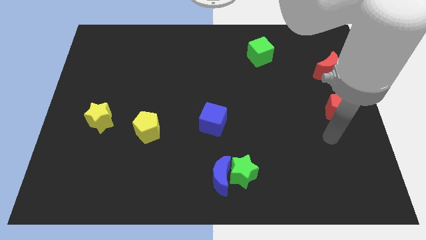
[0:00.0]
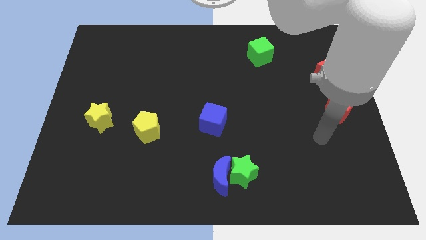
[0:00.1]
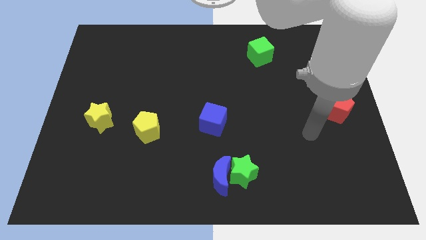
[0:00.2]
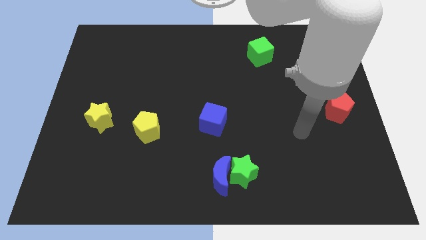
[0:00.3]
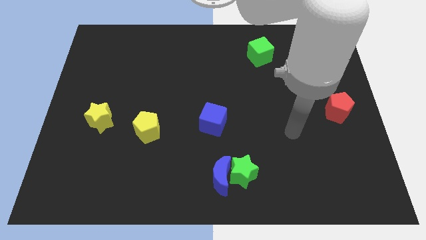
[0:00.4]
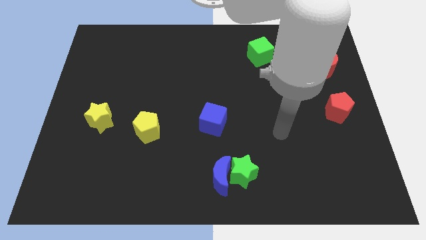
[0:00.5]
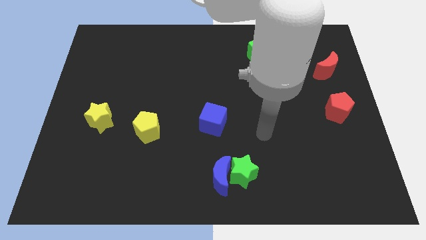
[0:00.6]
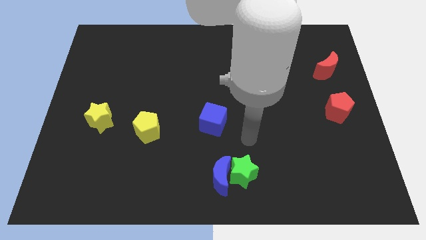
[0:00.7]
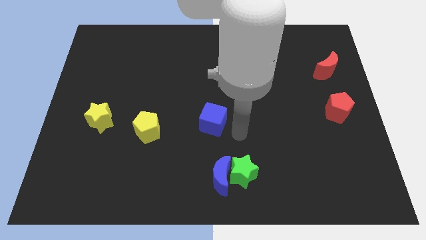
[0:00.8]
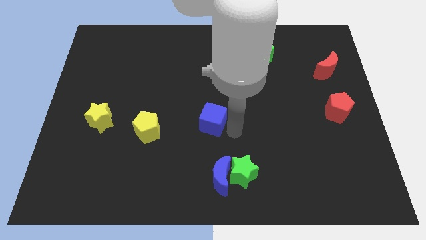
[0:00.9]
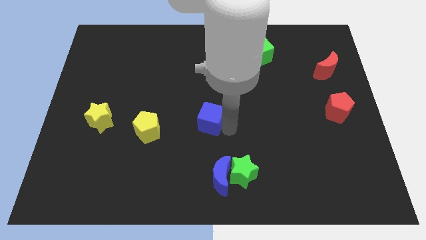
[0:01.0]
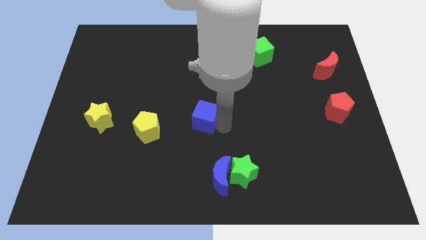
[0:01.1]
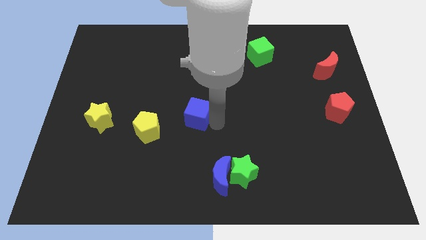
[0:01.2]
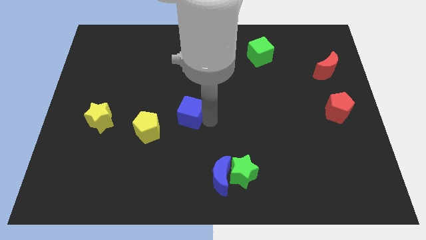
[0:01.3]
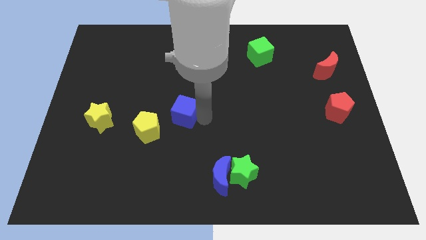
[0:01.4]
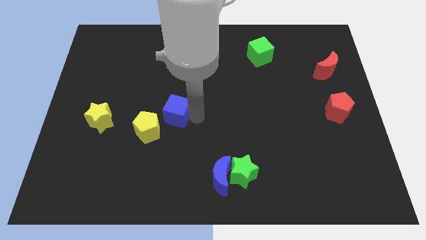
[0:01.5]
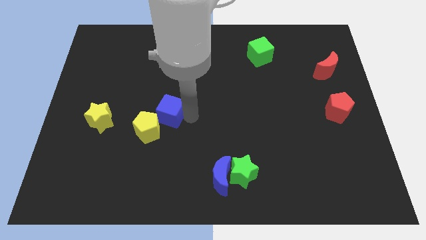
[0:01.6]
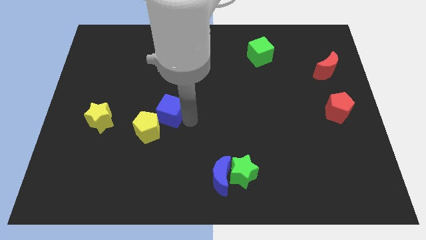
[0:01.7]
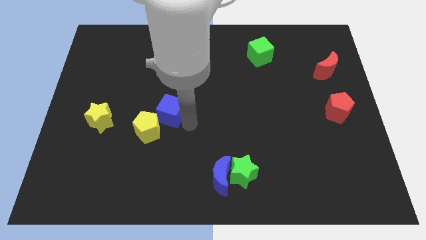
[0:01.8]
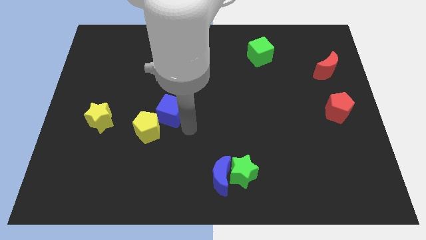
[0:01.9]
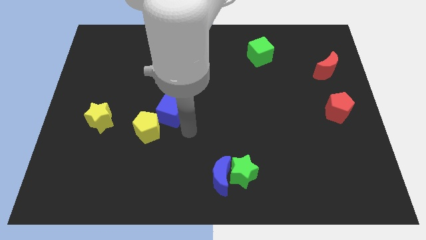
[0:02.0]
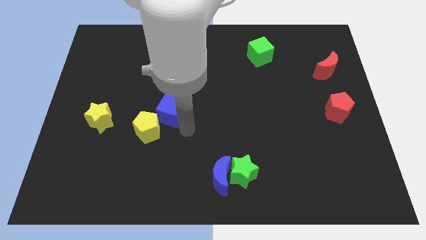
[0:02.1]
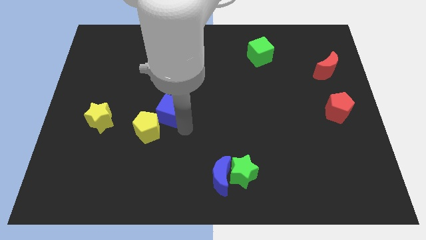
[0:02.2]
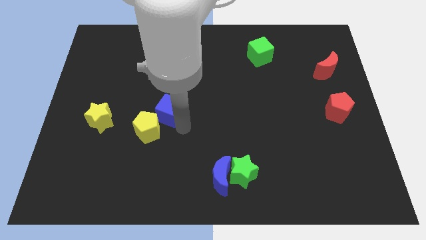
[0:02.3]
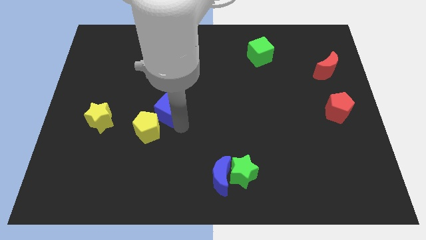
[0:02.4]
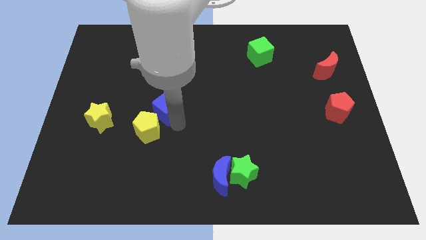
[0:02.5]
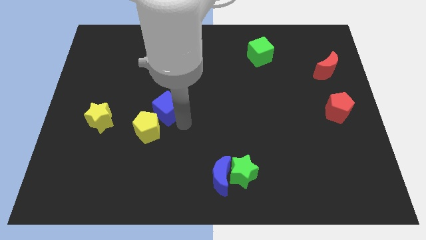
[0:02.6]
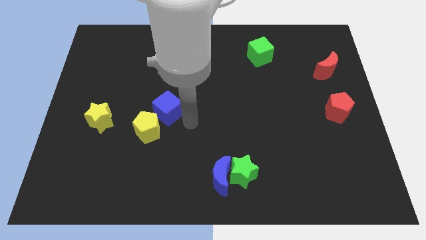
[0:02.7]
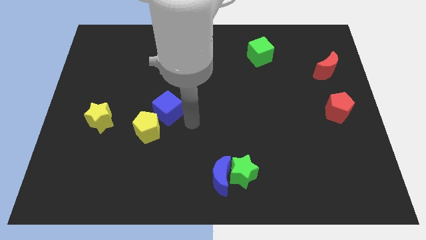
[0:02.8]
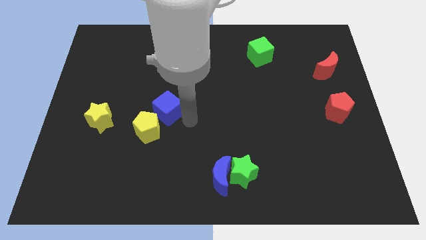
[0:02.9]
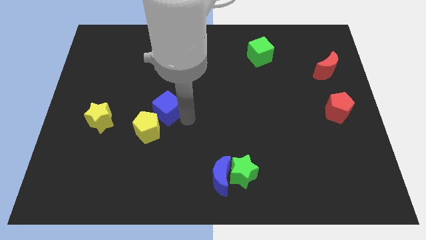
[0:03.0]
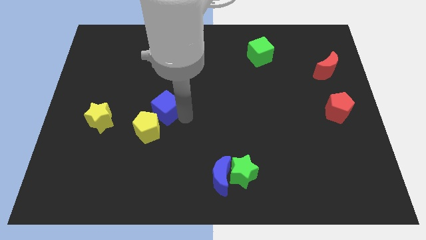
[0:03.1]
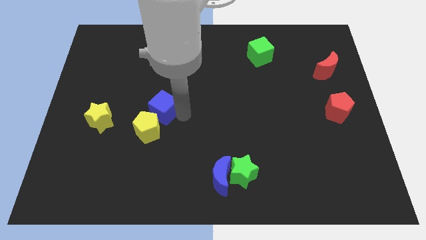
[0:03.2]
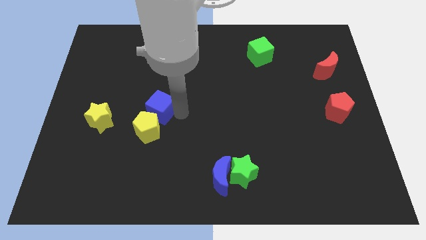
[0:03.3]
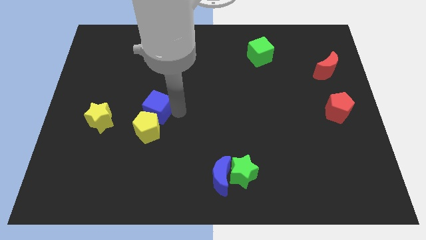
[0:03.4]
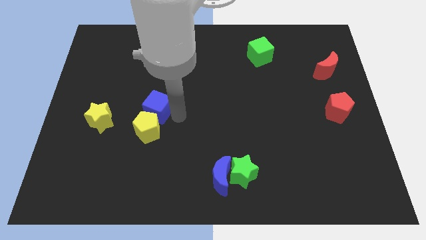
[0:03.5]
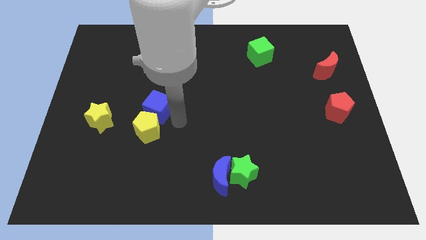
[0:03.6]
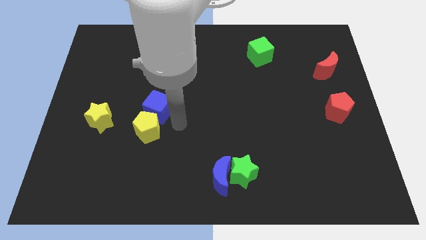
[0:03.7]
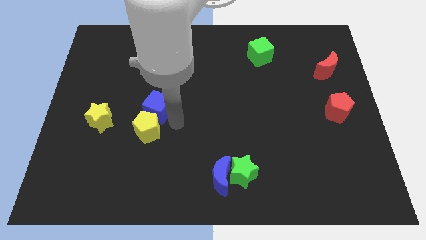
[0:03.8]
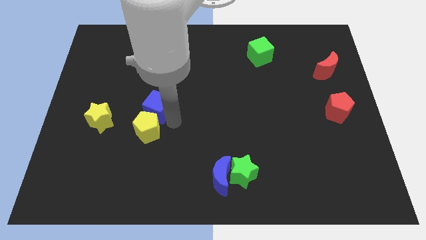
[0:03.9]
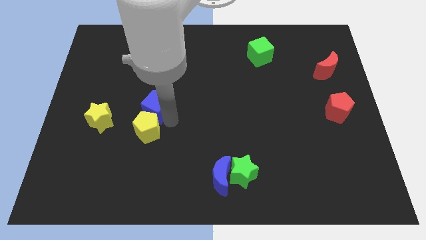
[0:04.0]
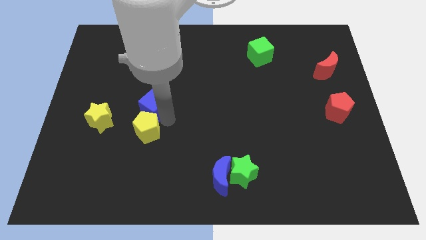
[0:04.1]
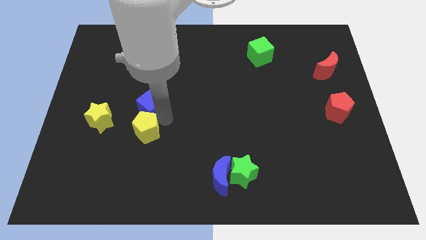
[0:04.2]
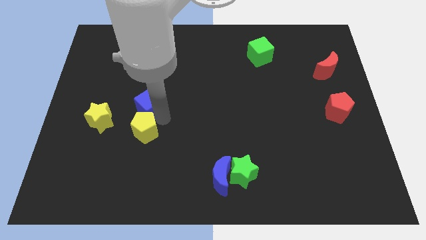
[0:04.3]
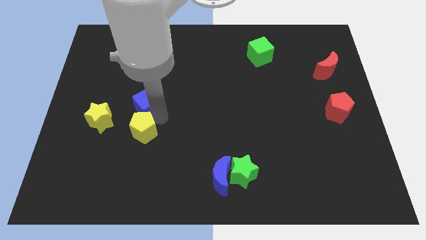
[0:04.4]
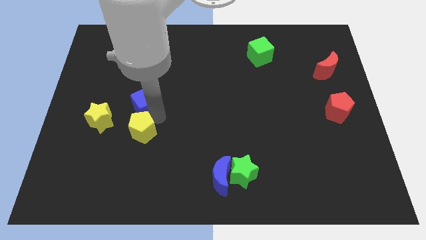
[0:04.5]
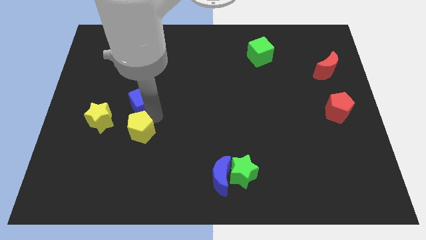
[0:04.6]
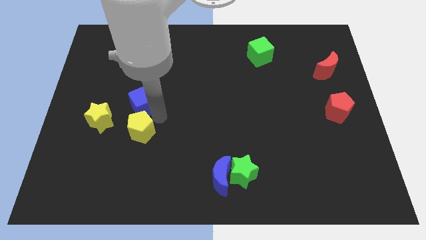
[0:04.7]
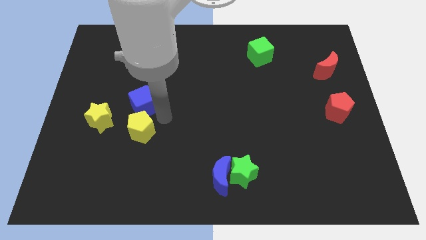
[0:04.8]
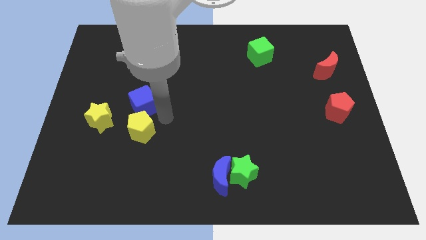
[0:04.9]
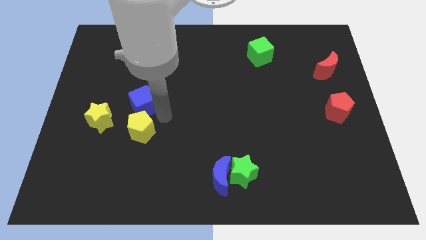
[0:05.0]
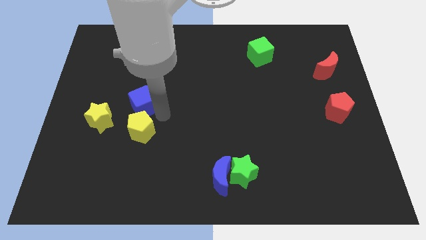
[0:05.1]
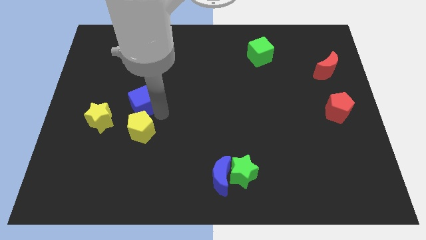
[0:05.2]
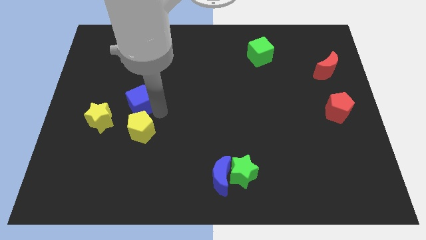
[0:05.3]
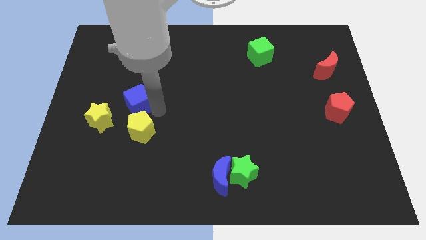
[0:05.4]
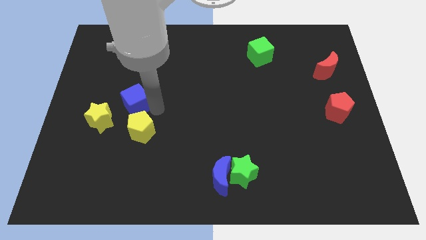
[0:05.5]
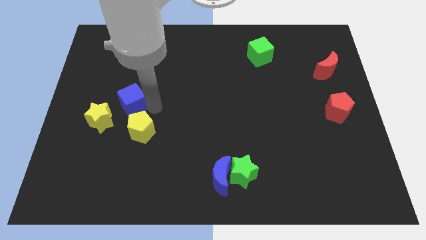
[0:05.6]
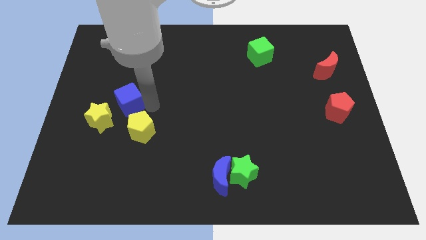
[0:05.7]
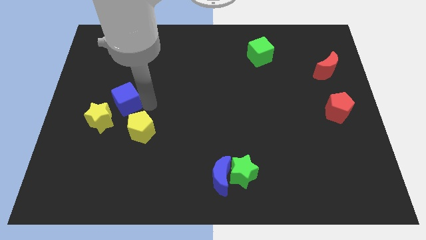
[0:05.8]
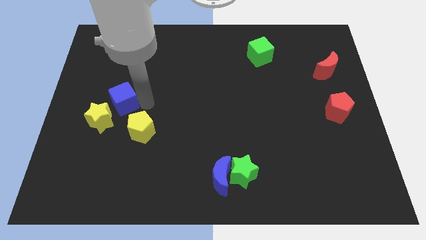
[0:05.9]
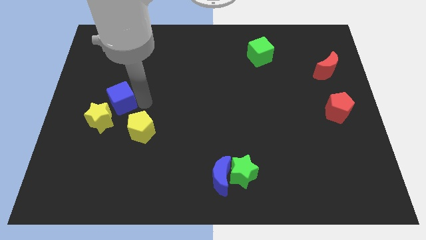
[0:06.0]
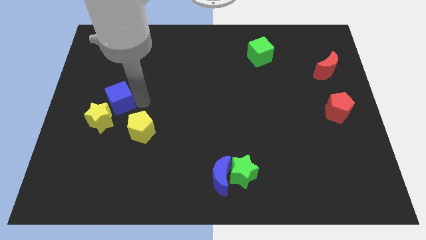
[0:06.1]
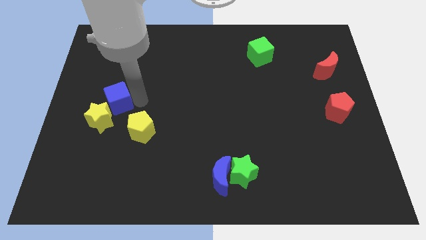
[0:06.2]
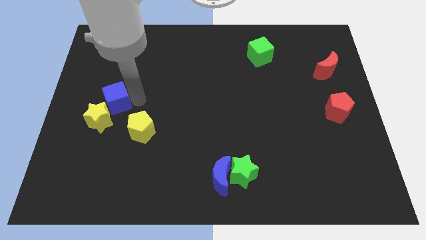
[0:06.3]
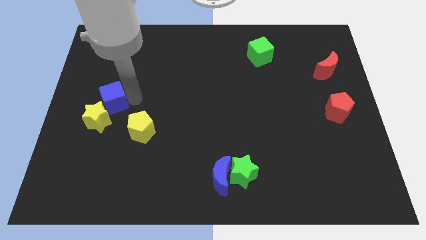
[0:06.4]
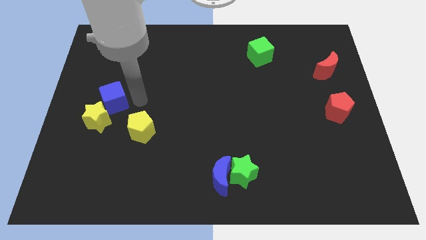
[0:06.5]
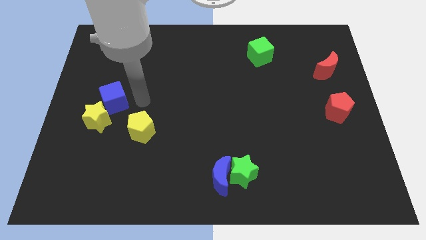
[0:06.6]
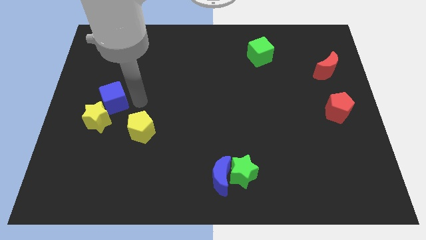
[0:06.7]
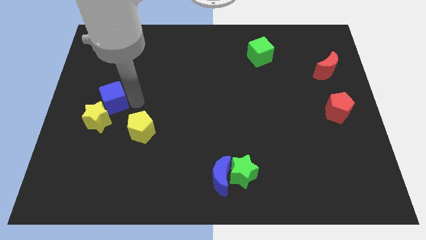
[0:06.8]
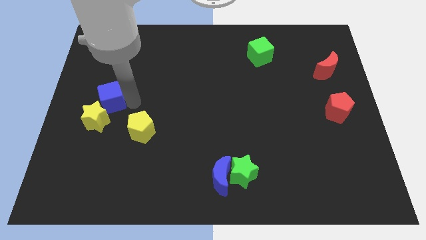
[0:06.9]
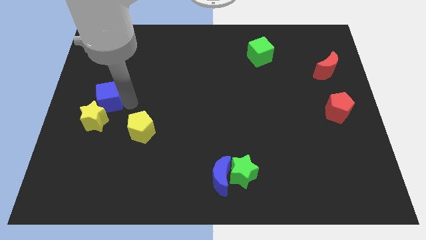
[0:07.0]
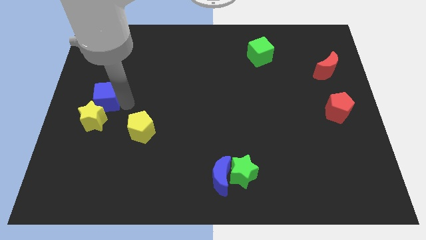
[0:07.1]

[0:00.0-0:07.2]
put the blue cube to the center left
